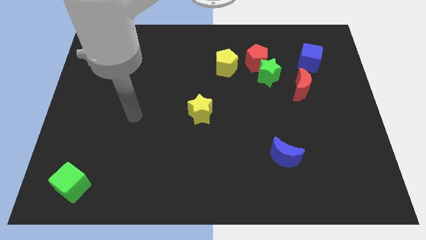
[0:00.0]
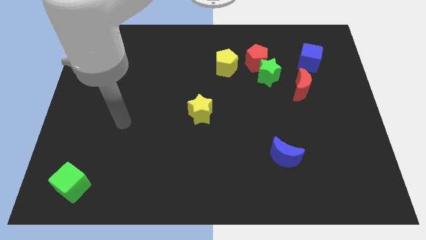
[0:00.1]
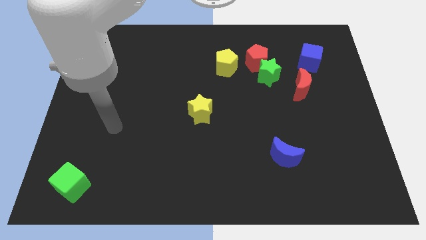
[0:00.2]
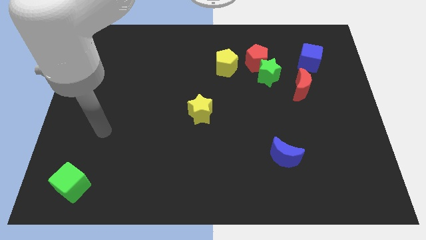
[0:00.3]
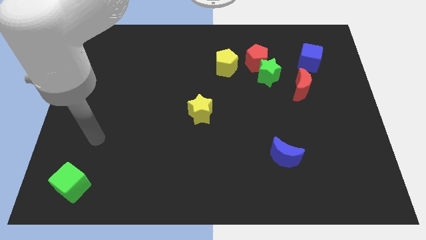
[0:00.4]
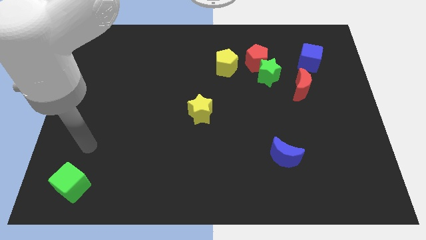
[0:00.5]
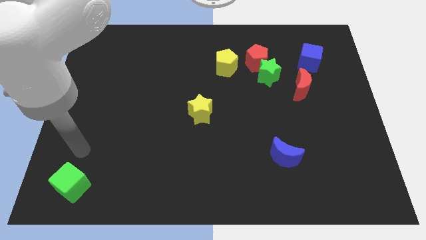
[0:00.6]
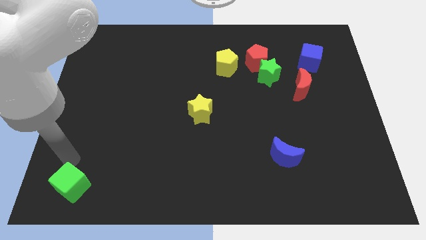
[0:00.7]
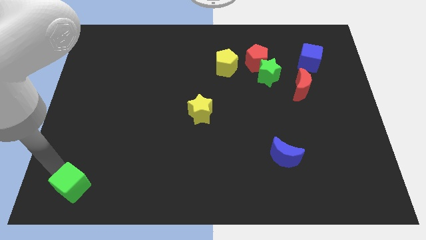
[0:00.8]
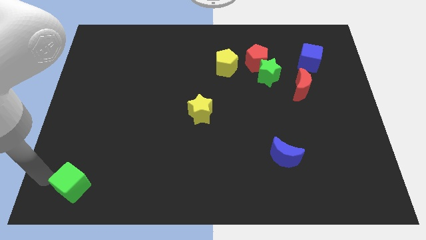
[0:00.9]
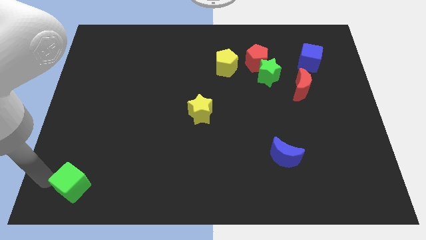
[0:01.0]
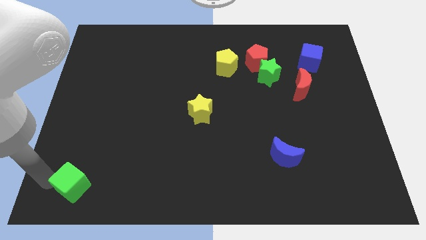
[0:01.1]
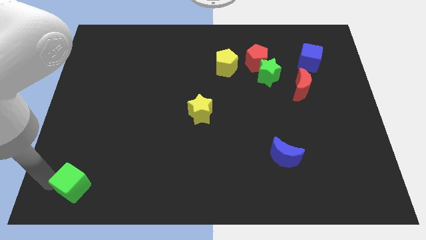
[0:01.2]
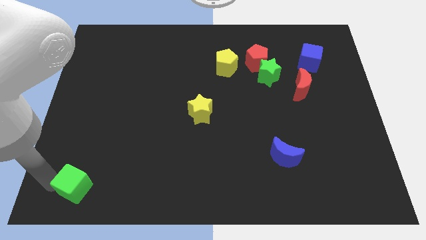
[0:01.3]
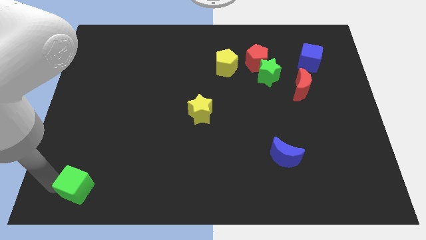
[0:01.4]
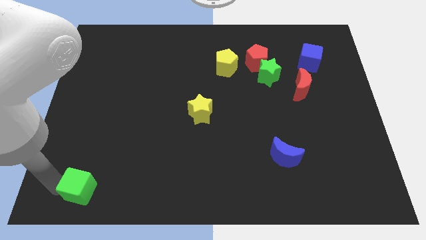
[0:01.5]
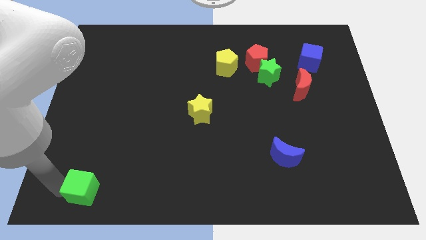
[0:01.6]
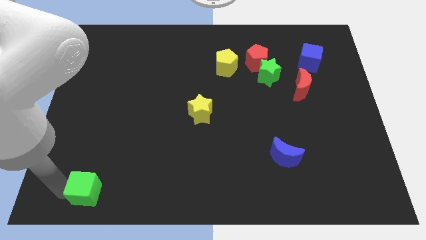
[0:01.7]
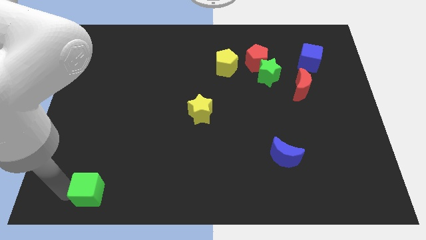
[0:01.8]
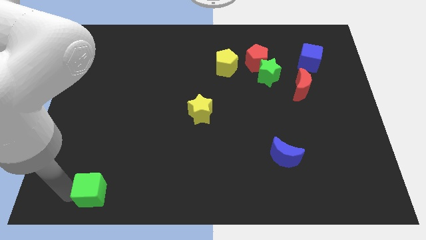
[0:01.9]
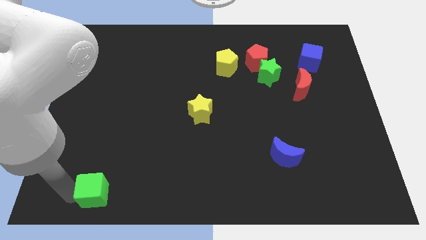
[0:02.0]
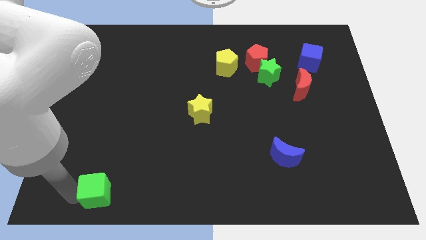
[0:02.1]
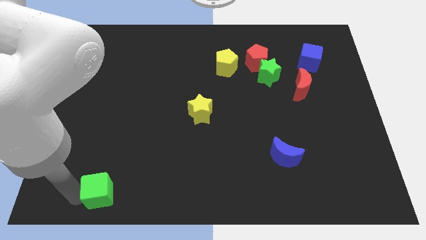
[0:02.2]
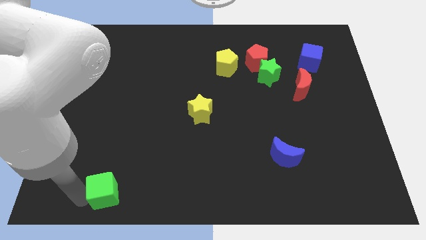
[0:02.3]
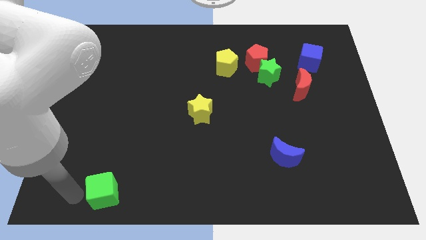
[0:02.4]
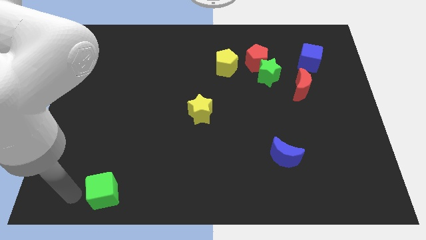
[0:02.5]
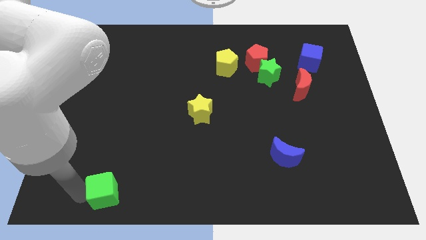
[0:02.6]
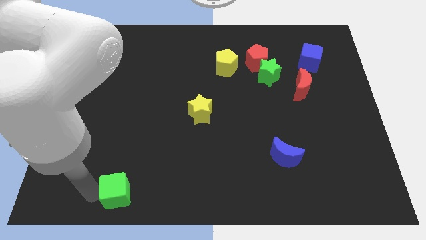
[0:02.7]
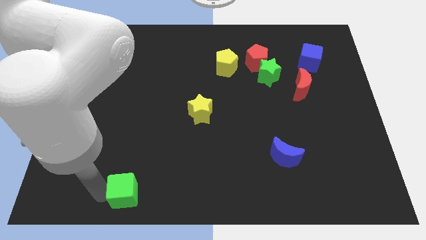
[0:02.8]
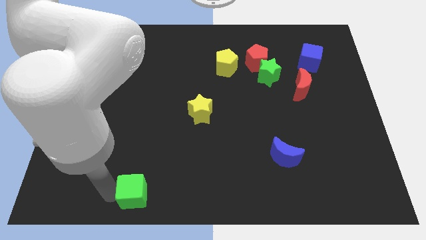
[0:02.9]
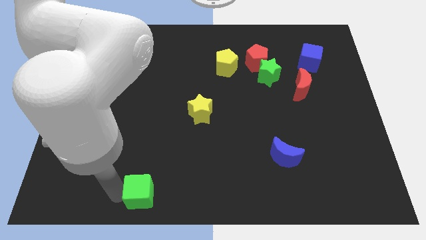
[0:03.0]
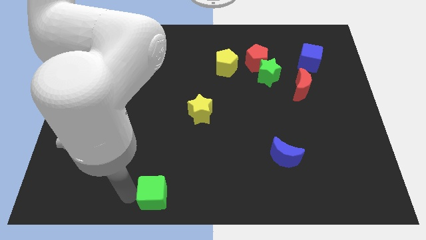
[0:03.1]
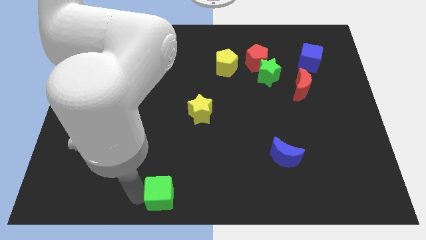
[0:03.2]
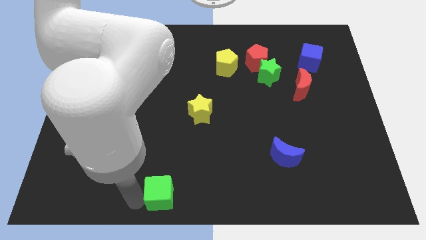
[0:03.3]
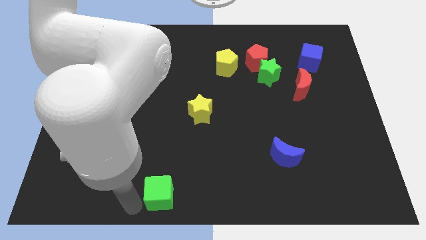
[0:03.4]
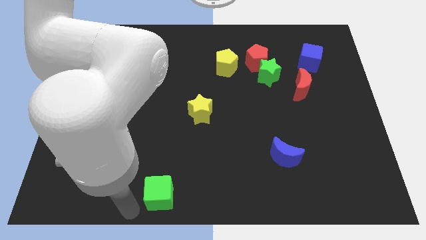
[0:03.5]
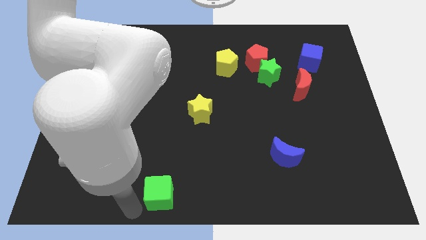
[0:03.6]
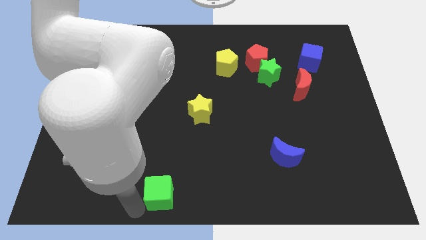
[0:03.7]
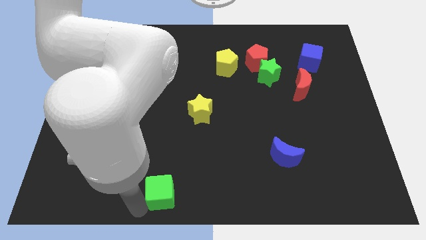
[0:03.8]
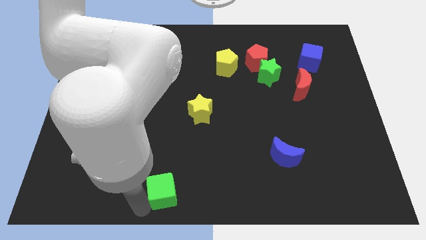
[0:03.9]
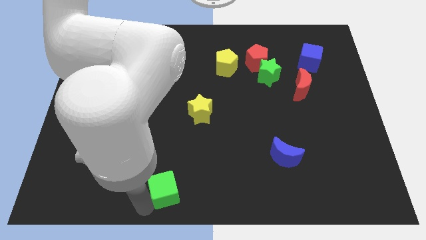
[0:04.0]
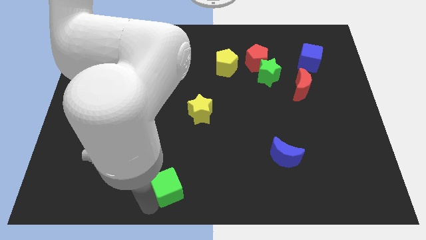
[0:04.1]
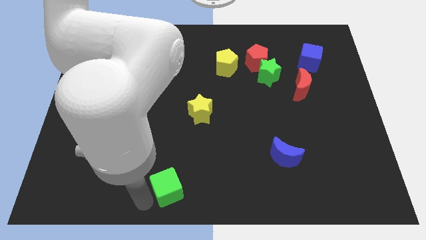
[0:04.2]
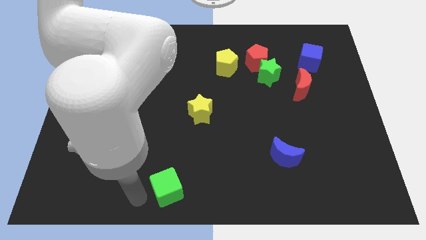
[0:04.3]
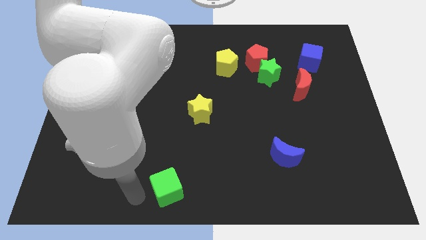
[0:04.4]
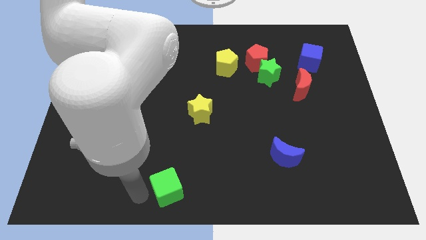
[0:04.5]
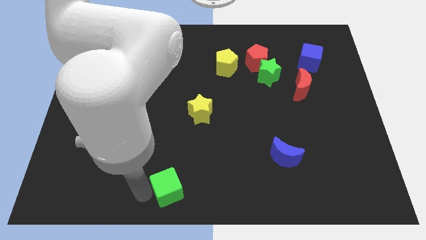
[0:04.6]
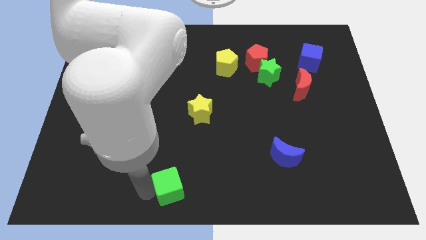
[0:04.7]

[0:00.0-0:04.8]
move the green cube right

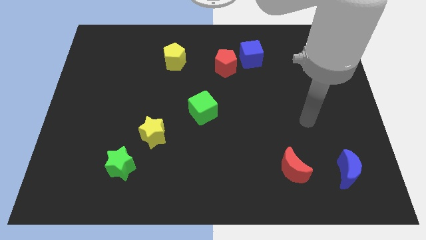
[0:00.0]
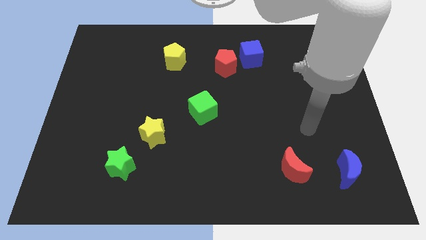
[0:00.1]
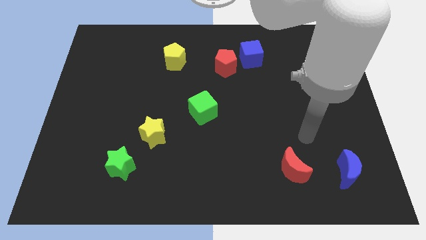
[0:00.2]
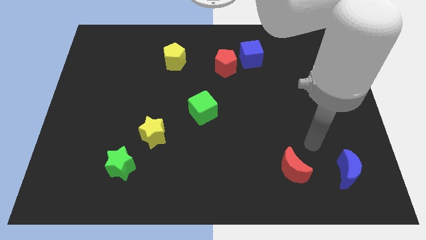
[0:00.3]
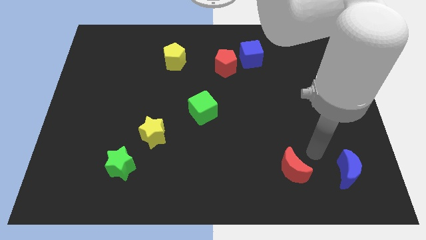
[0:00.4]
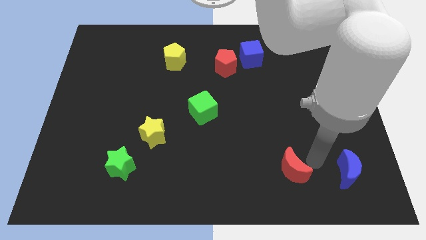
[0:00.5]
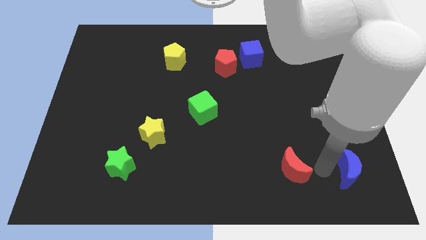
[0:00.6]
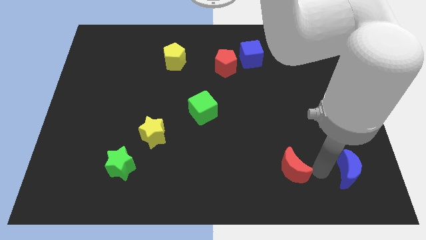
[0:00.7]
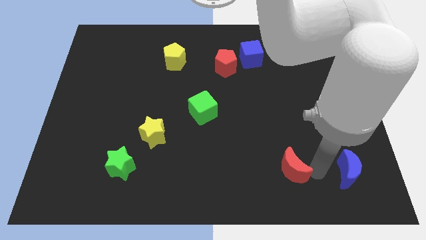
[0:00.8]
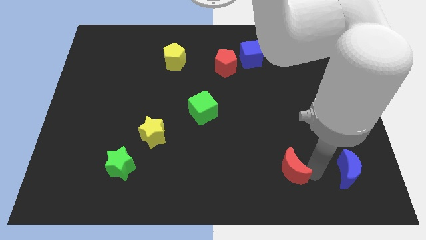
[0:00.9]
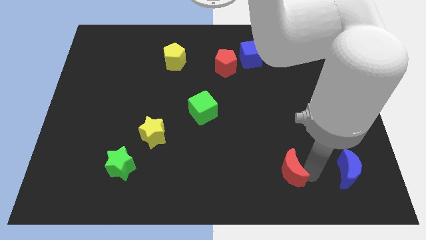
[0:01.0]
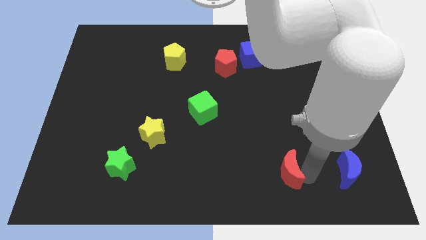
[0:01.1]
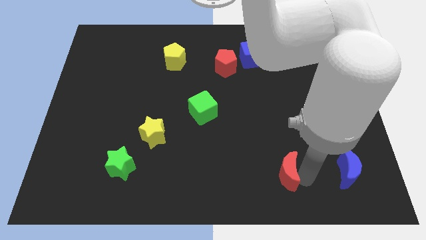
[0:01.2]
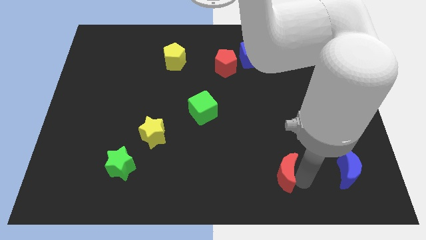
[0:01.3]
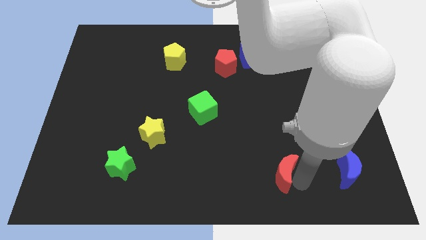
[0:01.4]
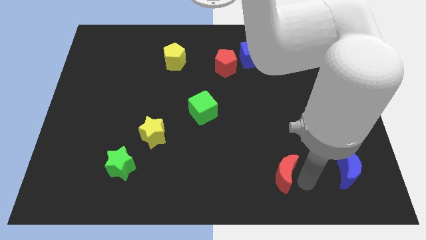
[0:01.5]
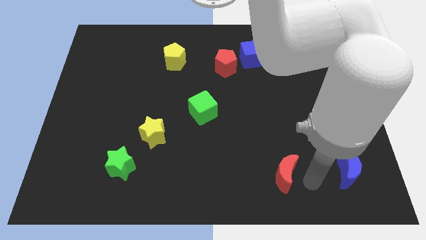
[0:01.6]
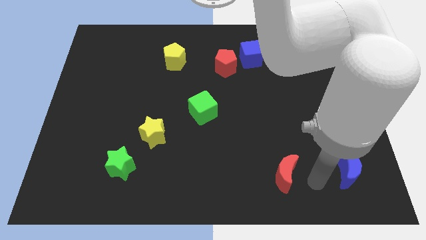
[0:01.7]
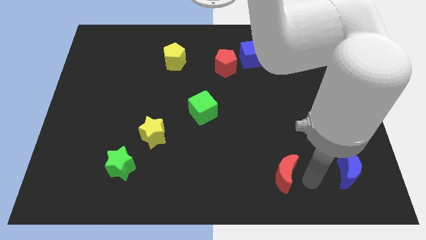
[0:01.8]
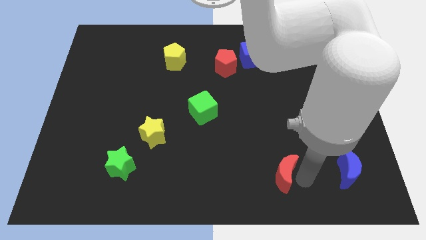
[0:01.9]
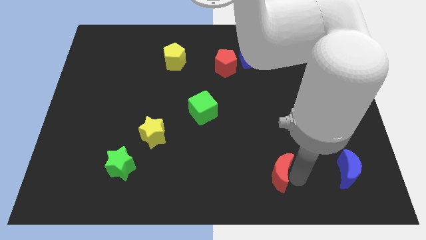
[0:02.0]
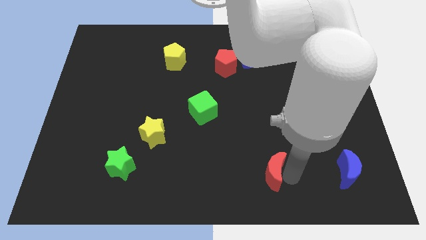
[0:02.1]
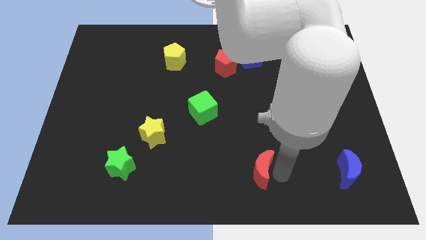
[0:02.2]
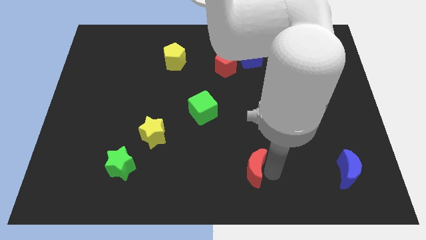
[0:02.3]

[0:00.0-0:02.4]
move the red moon left slightly

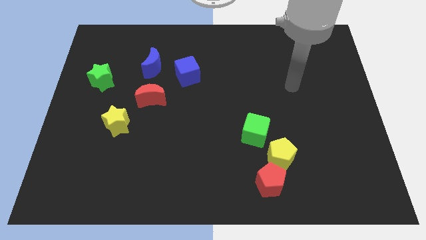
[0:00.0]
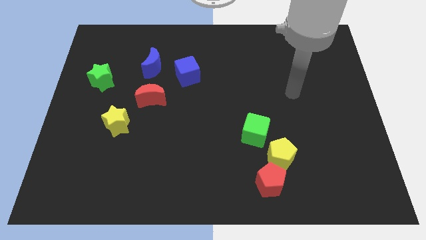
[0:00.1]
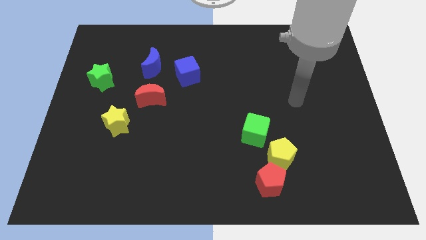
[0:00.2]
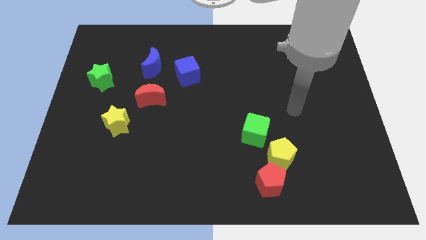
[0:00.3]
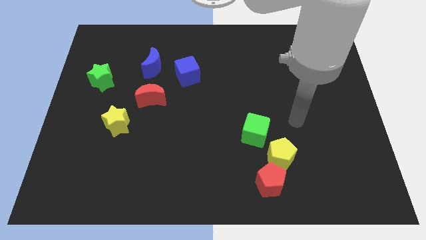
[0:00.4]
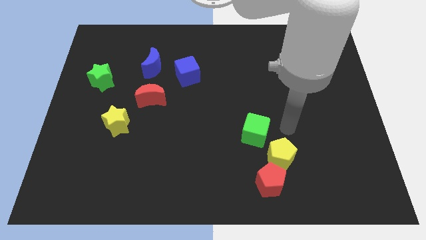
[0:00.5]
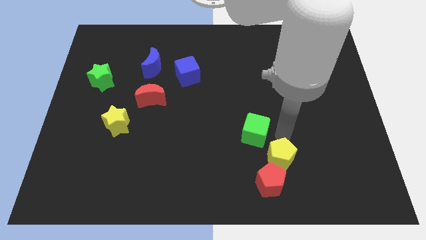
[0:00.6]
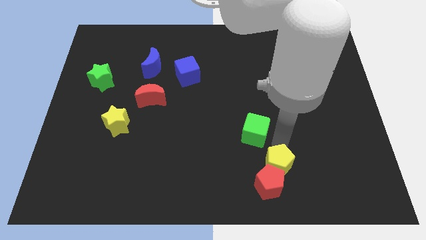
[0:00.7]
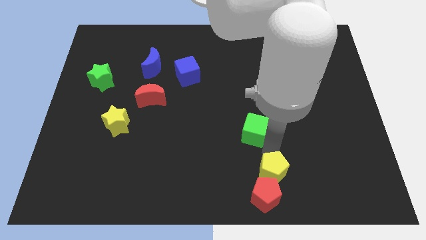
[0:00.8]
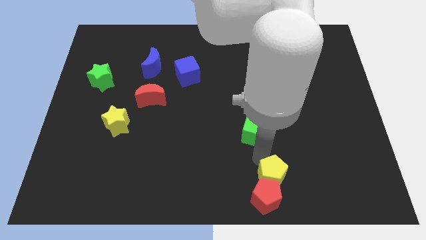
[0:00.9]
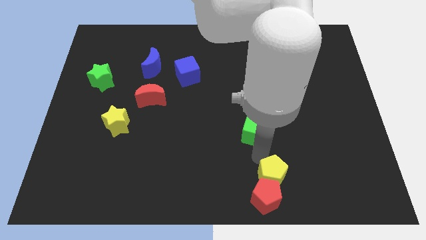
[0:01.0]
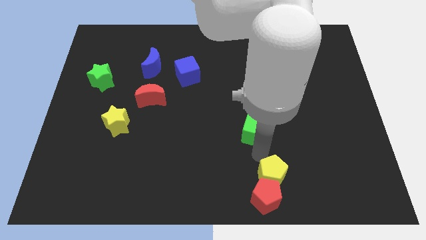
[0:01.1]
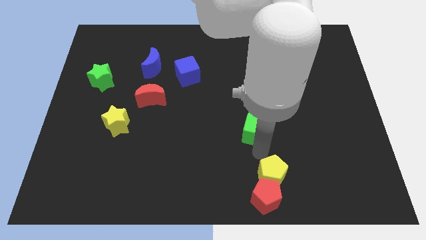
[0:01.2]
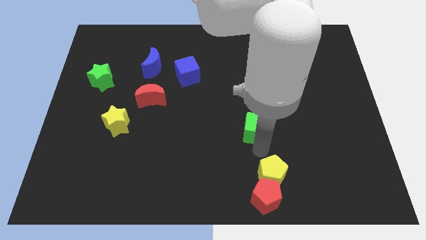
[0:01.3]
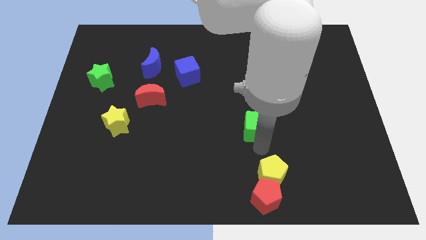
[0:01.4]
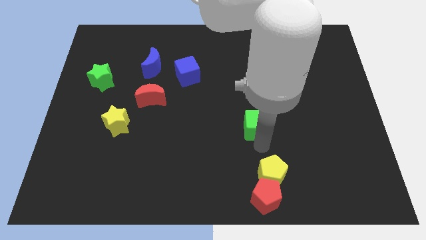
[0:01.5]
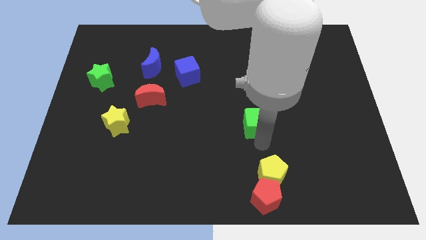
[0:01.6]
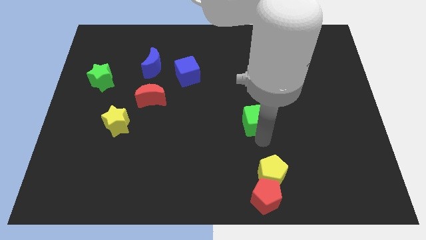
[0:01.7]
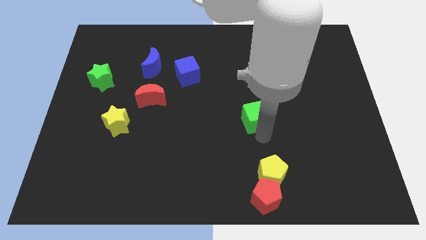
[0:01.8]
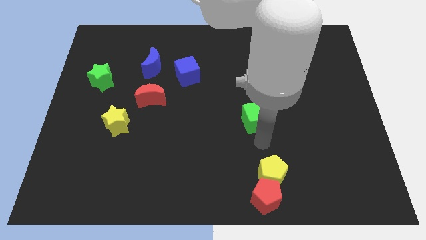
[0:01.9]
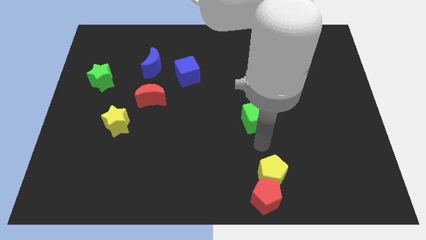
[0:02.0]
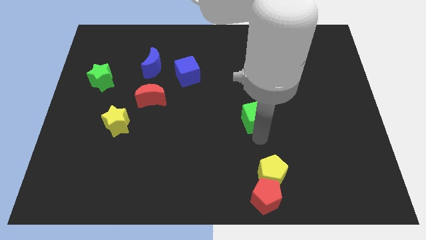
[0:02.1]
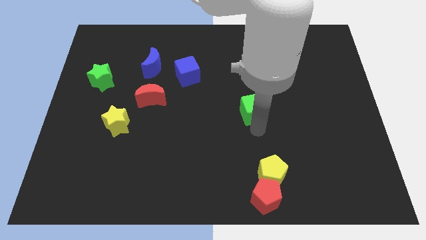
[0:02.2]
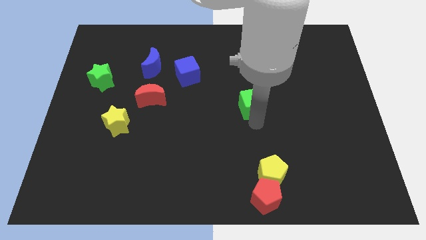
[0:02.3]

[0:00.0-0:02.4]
slide the green cube up a bit
